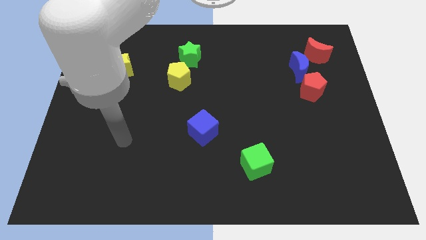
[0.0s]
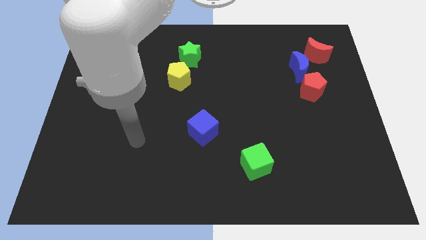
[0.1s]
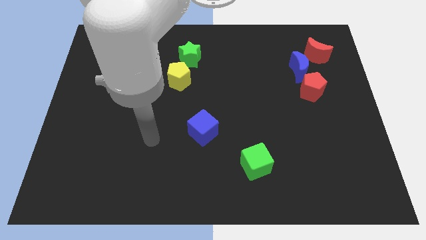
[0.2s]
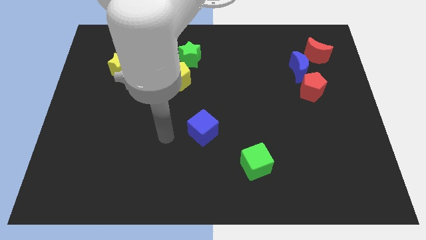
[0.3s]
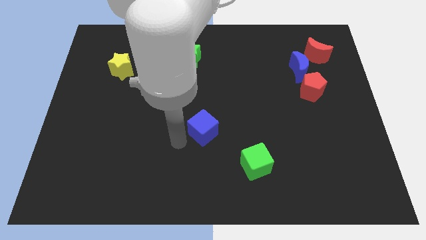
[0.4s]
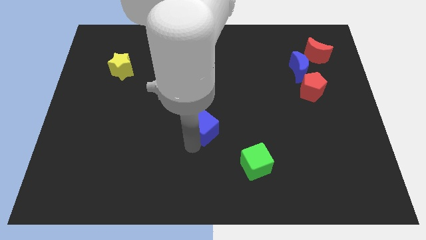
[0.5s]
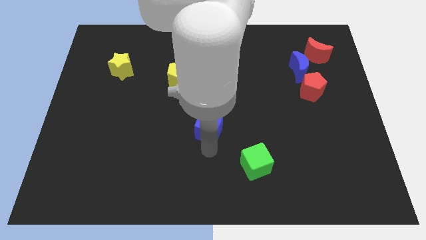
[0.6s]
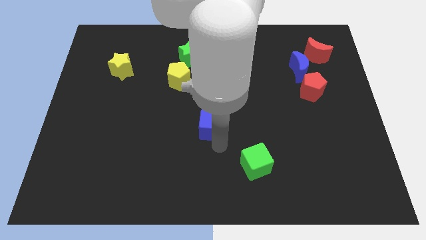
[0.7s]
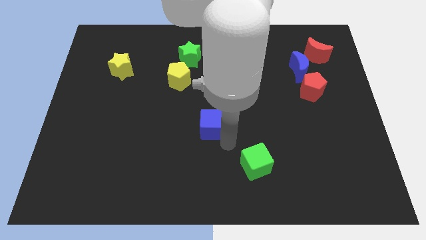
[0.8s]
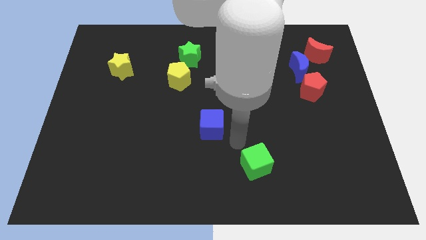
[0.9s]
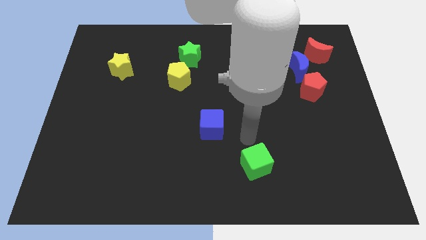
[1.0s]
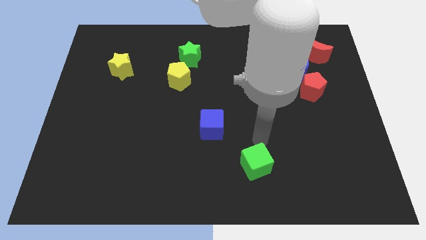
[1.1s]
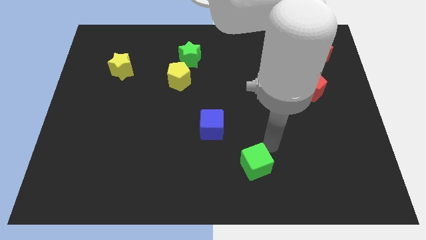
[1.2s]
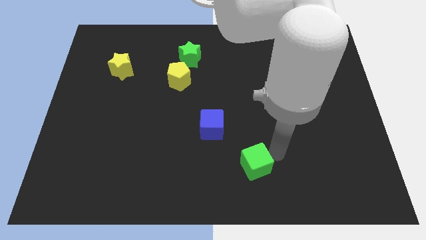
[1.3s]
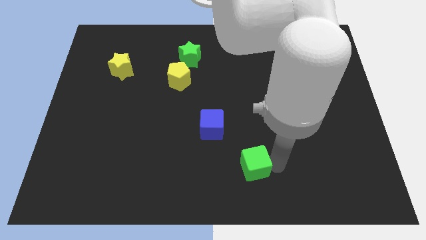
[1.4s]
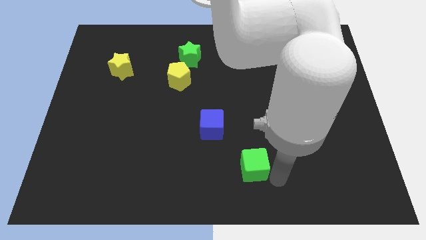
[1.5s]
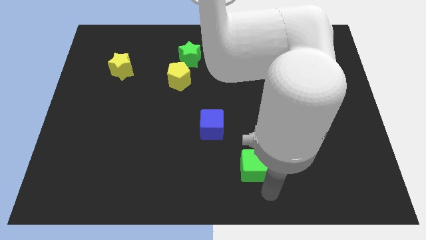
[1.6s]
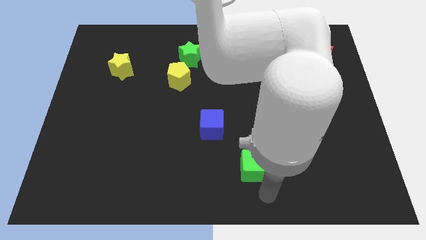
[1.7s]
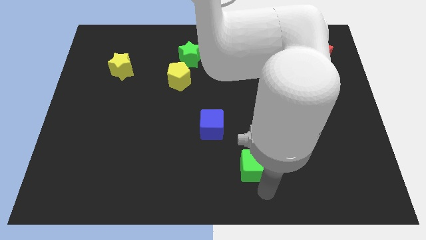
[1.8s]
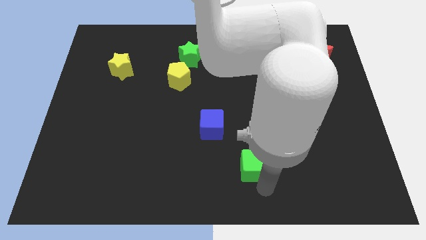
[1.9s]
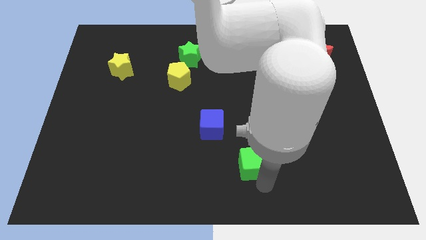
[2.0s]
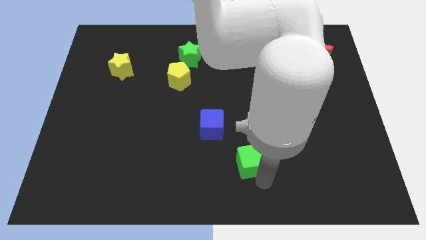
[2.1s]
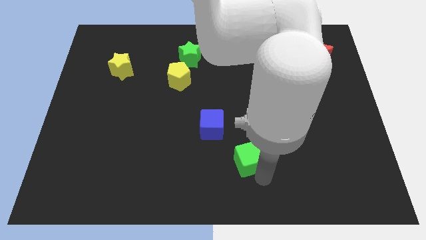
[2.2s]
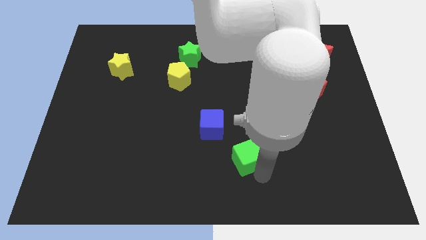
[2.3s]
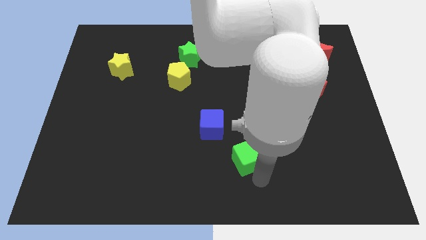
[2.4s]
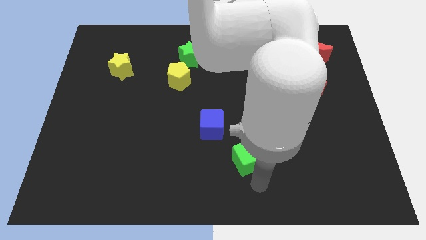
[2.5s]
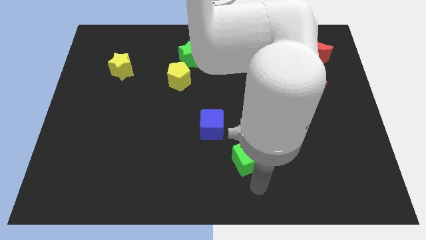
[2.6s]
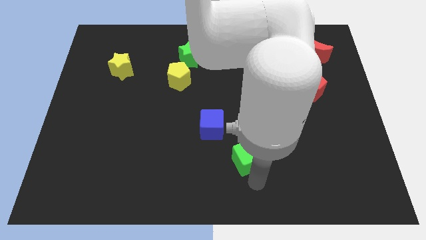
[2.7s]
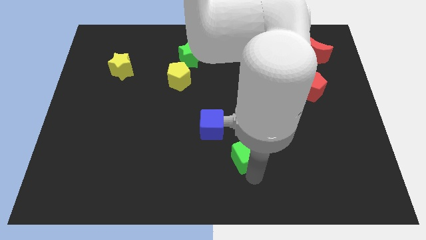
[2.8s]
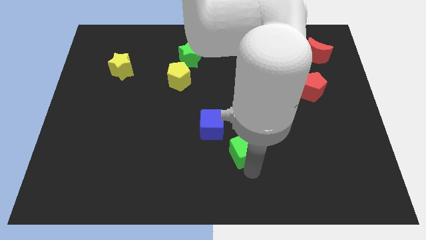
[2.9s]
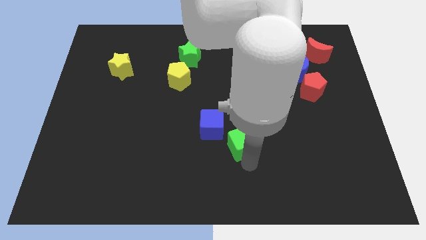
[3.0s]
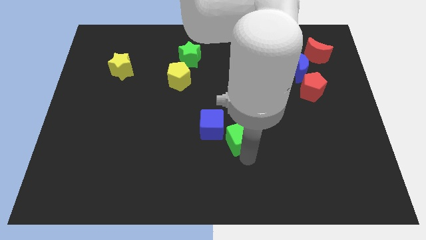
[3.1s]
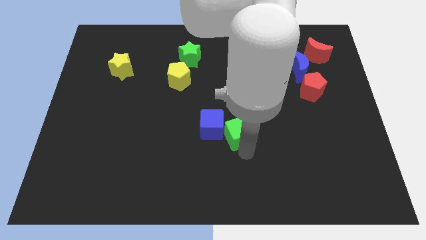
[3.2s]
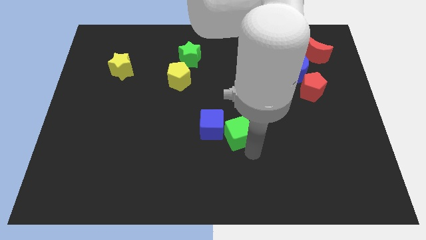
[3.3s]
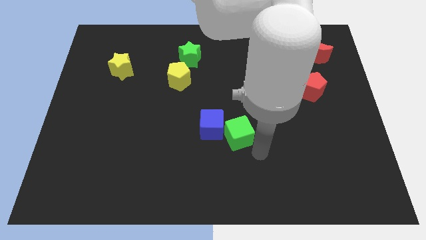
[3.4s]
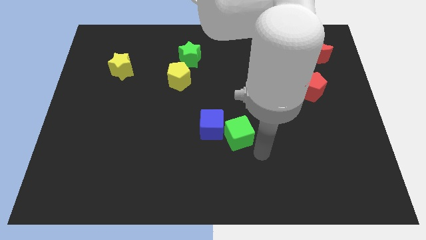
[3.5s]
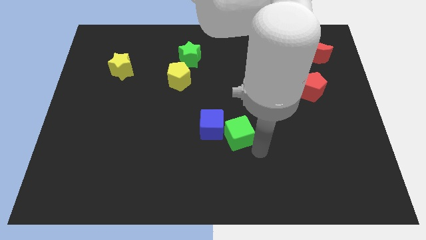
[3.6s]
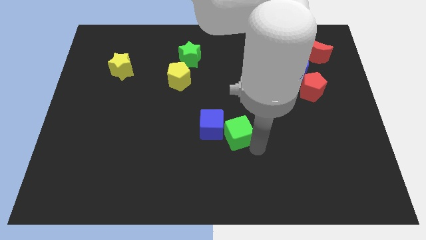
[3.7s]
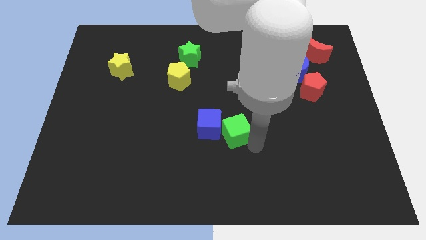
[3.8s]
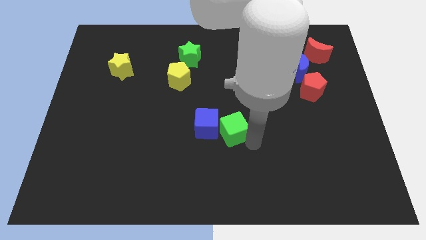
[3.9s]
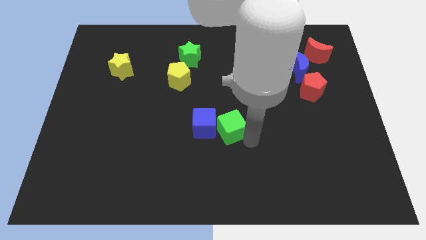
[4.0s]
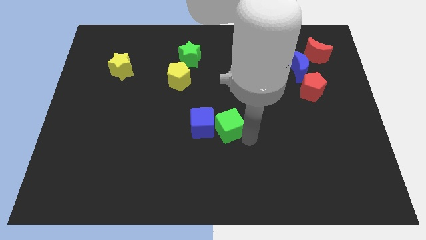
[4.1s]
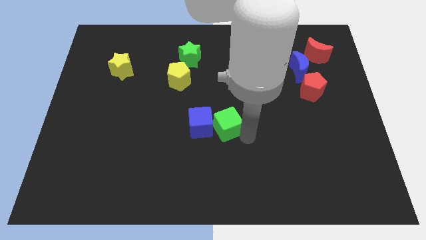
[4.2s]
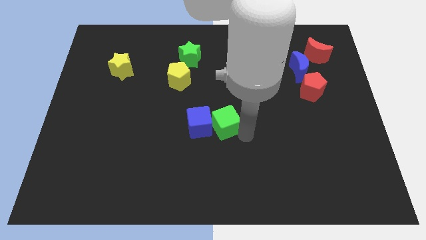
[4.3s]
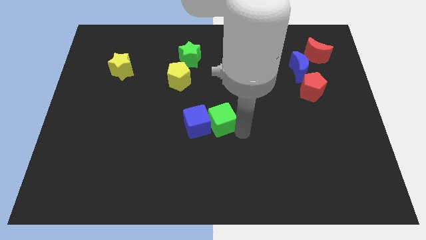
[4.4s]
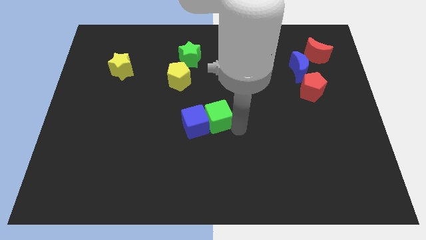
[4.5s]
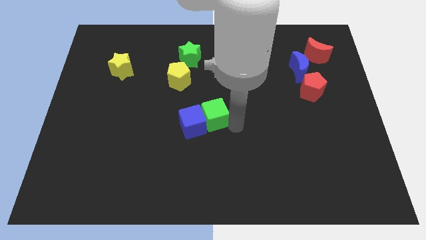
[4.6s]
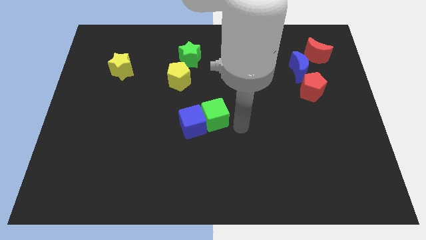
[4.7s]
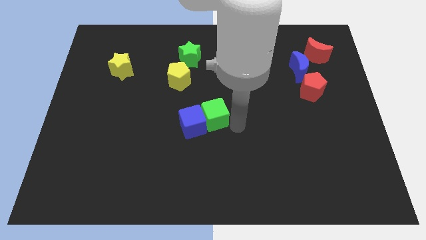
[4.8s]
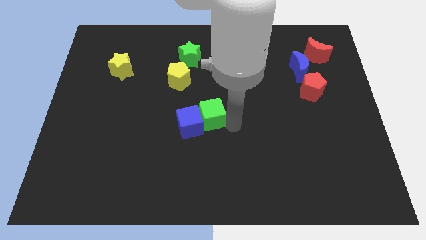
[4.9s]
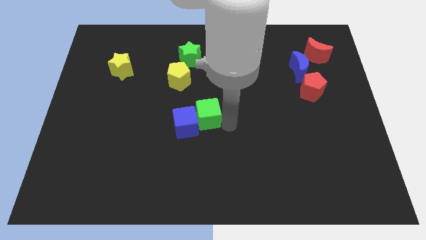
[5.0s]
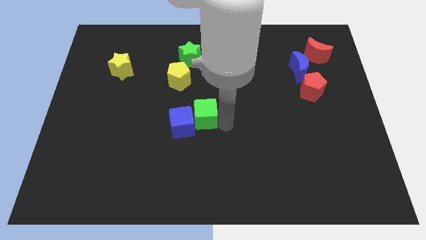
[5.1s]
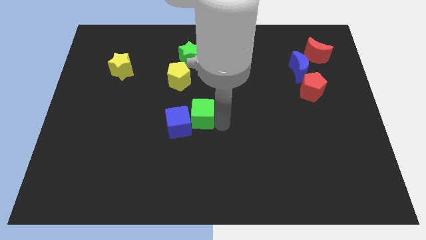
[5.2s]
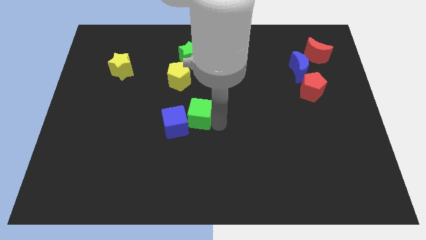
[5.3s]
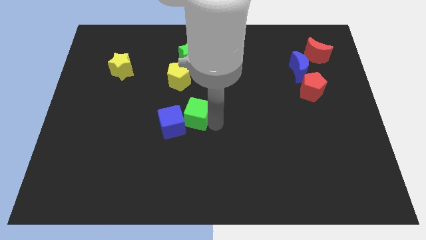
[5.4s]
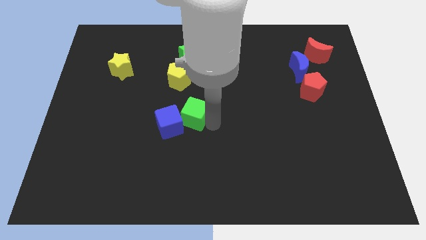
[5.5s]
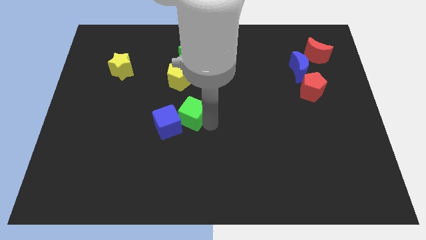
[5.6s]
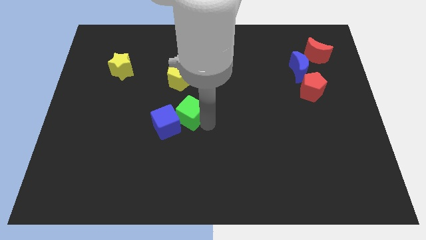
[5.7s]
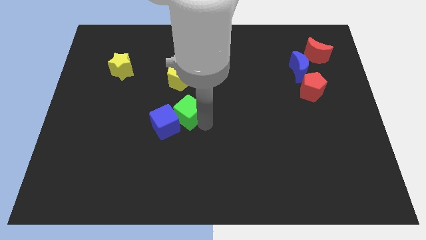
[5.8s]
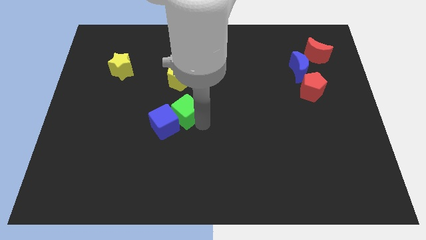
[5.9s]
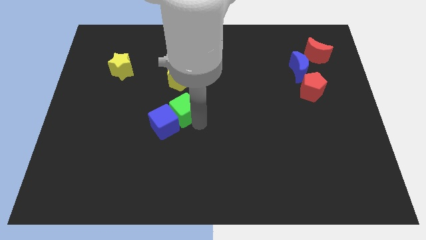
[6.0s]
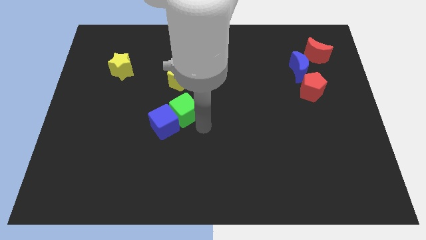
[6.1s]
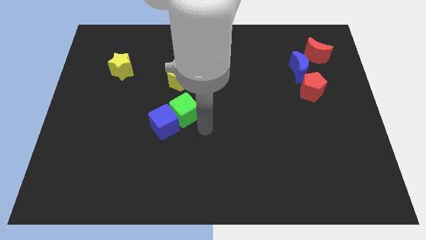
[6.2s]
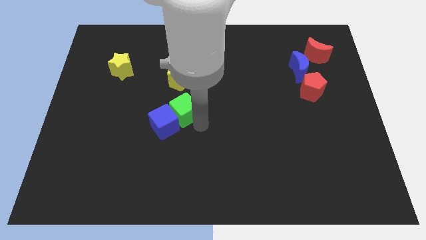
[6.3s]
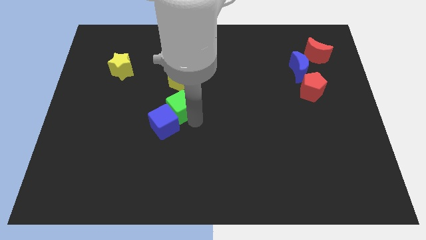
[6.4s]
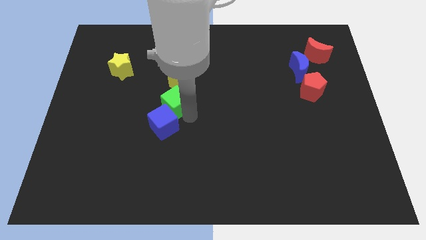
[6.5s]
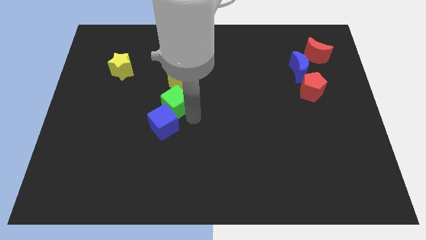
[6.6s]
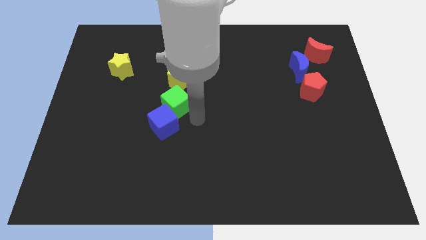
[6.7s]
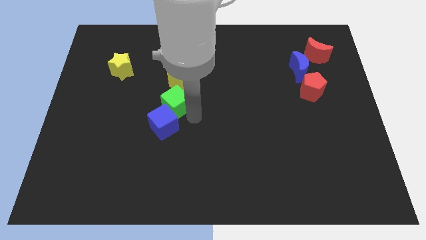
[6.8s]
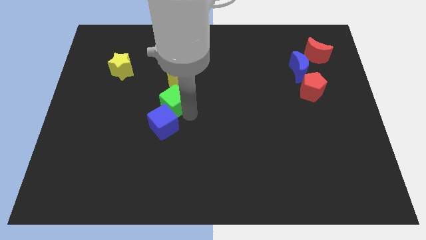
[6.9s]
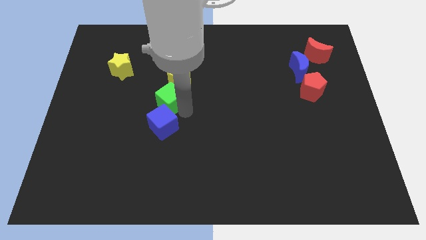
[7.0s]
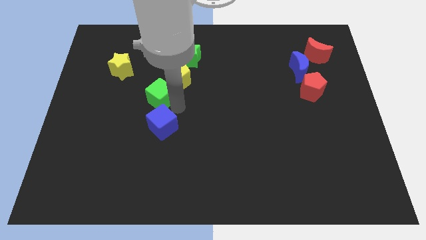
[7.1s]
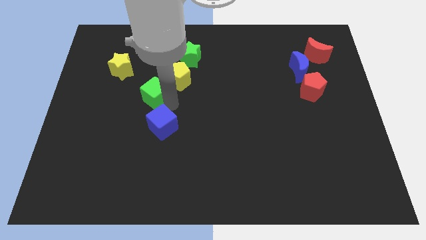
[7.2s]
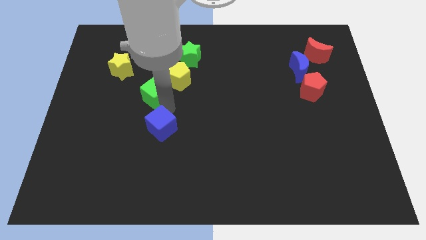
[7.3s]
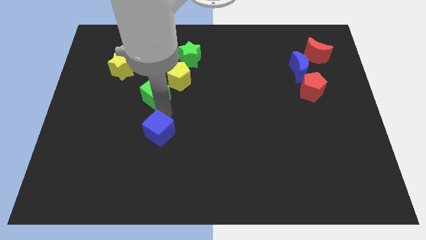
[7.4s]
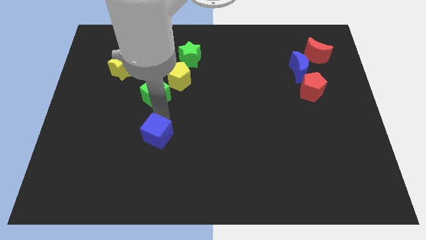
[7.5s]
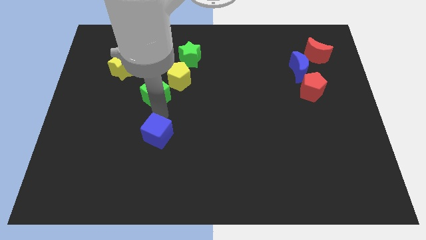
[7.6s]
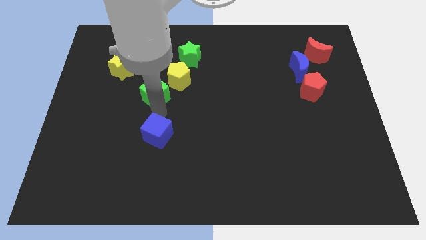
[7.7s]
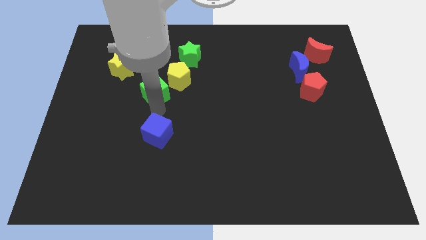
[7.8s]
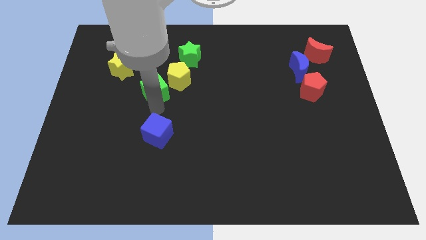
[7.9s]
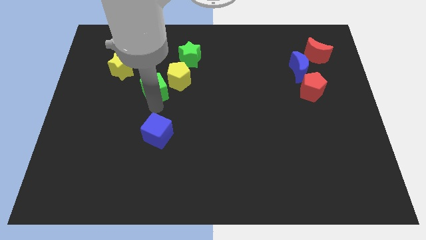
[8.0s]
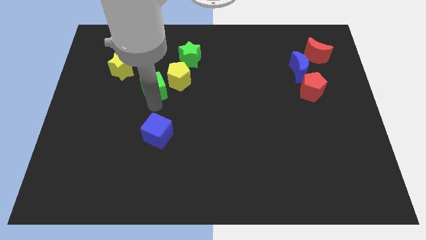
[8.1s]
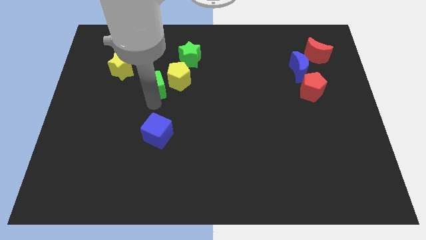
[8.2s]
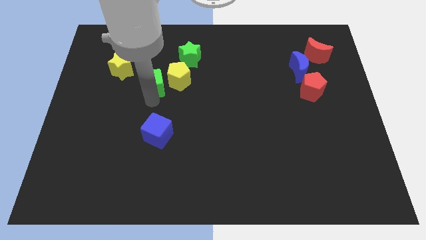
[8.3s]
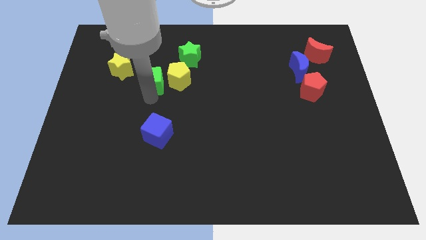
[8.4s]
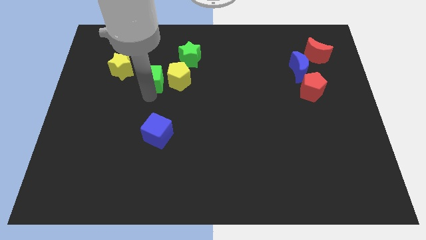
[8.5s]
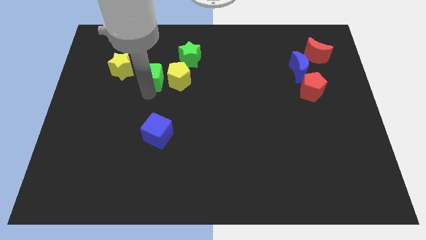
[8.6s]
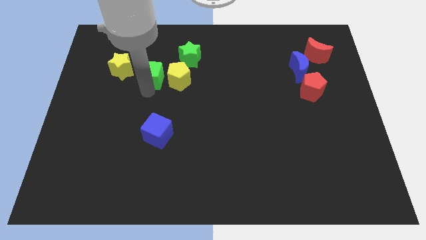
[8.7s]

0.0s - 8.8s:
push the green cube to the top left side of the yellow pentagon
